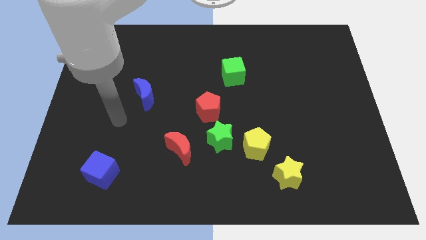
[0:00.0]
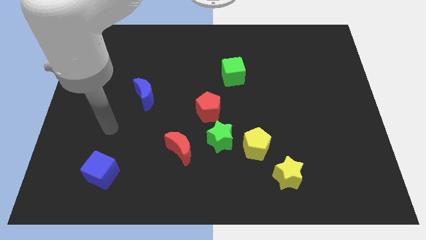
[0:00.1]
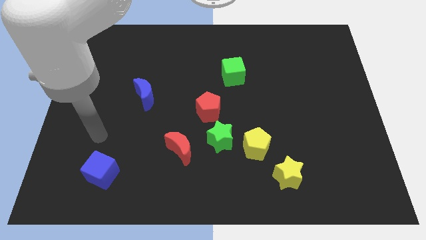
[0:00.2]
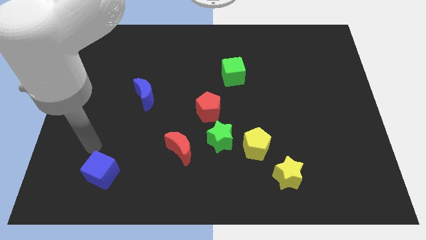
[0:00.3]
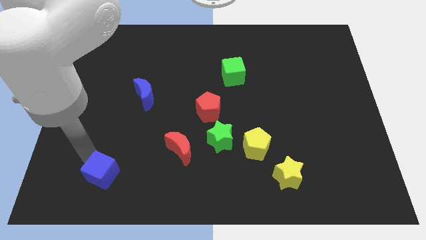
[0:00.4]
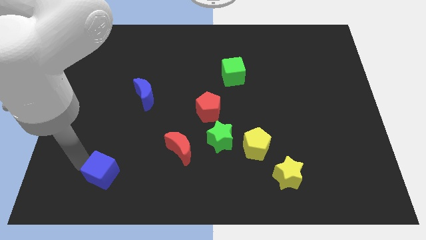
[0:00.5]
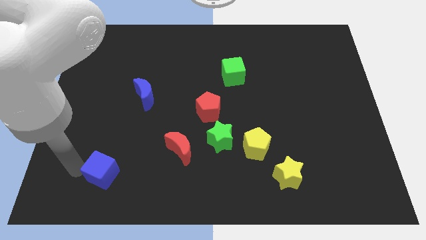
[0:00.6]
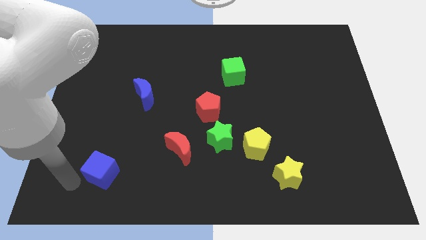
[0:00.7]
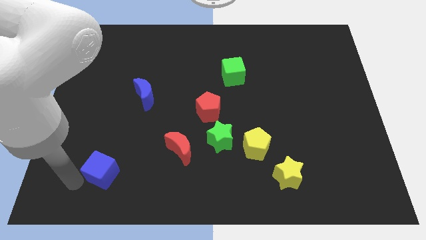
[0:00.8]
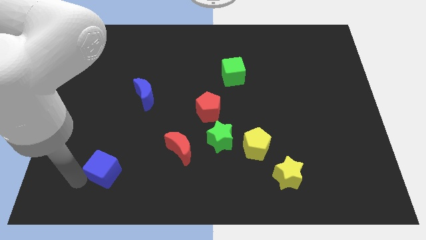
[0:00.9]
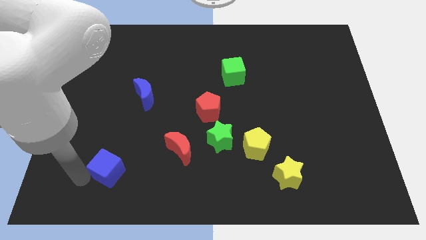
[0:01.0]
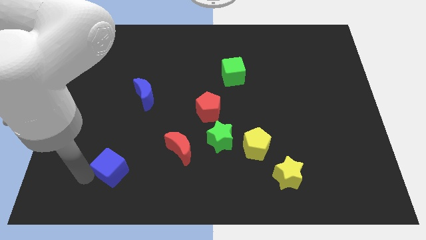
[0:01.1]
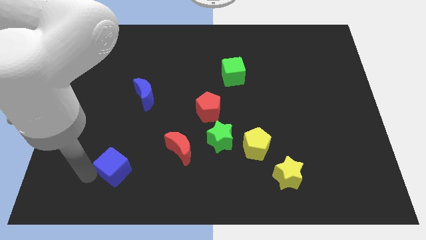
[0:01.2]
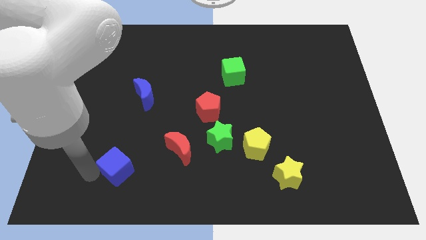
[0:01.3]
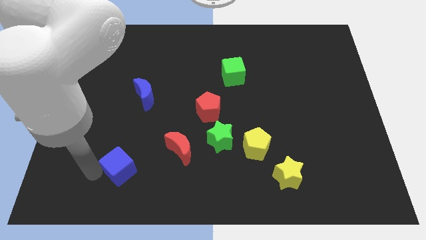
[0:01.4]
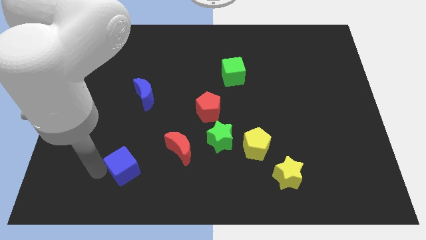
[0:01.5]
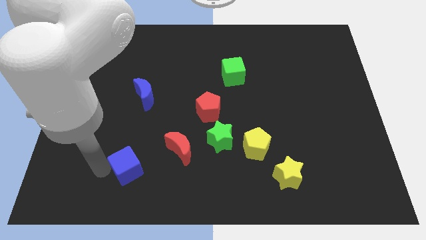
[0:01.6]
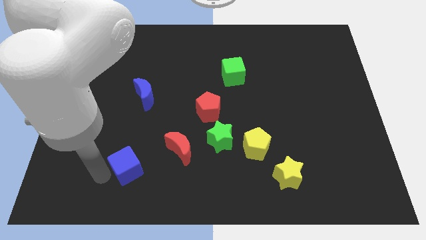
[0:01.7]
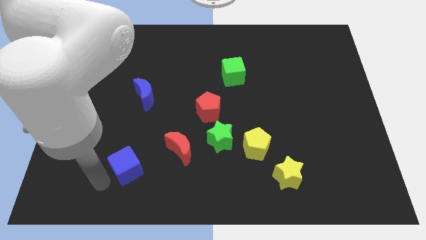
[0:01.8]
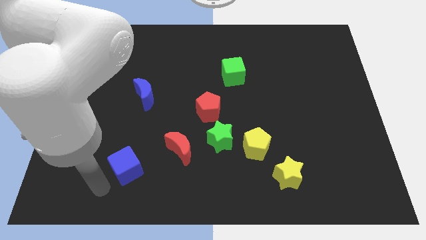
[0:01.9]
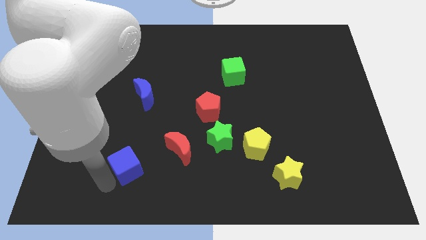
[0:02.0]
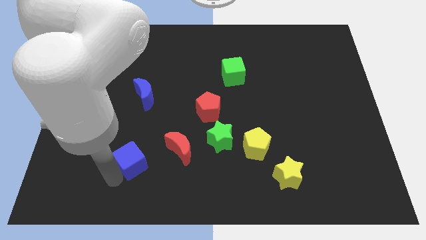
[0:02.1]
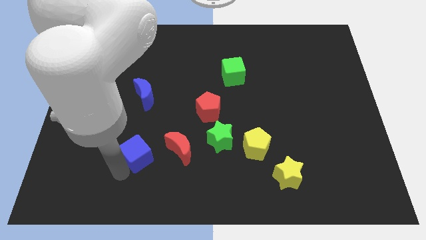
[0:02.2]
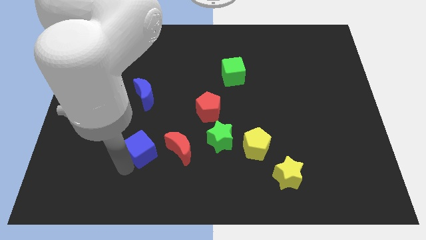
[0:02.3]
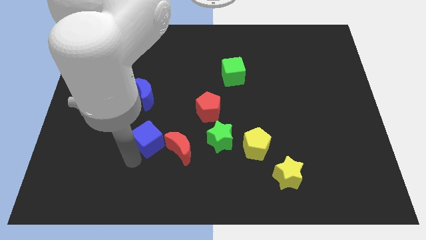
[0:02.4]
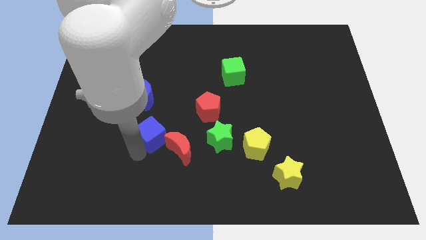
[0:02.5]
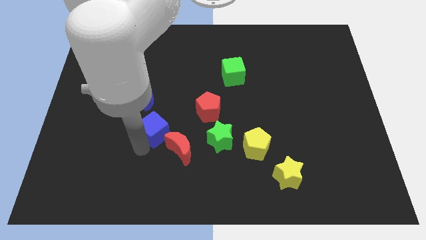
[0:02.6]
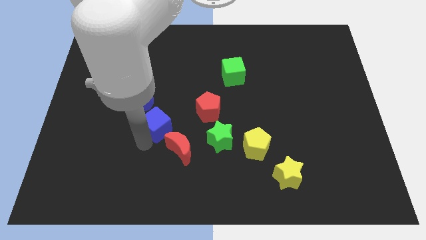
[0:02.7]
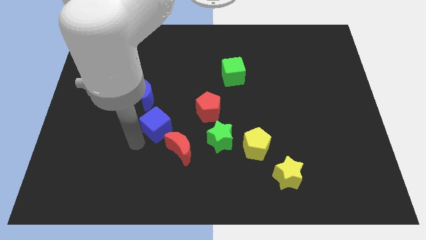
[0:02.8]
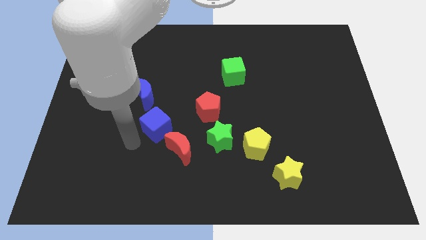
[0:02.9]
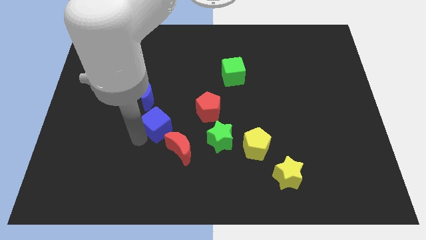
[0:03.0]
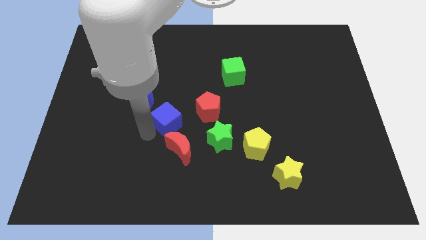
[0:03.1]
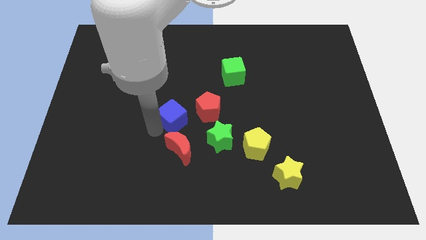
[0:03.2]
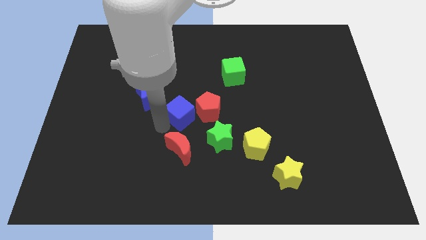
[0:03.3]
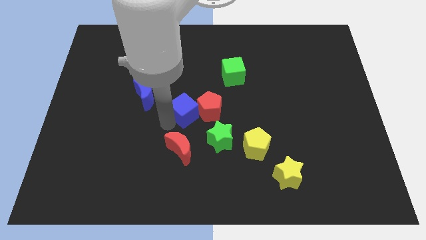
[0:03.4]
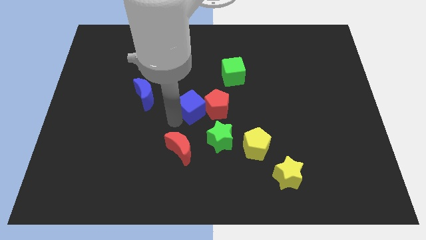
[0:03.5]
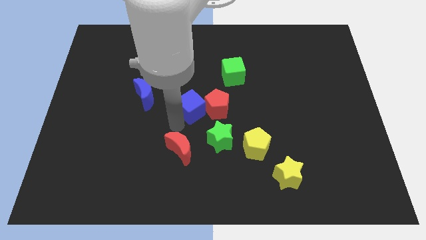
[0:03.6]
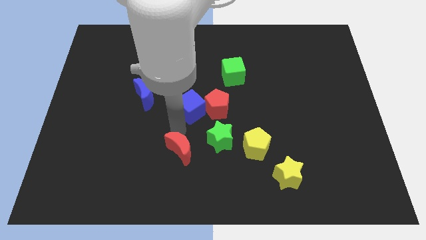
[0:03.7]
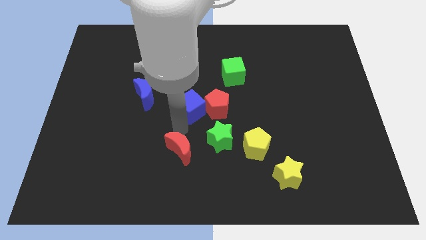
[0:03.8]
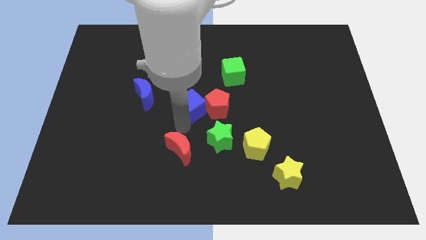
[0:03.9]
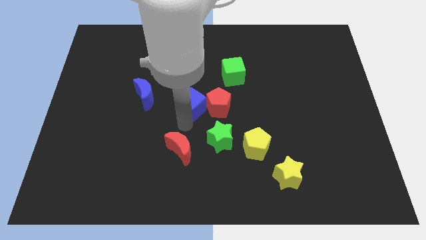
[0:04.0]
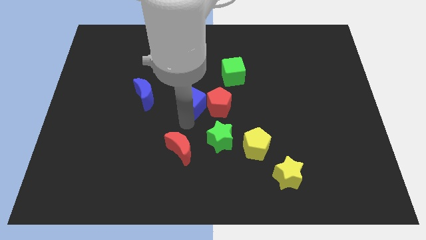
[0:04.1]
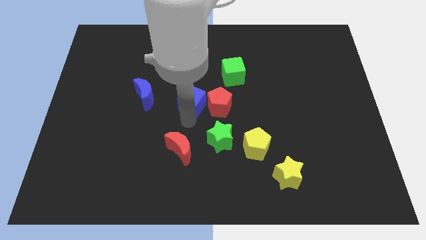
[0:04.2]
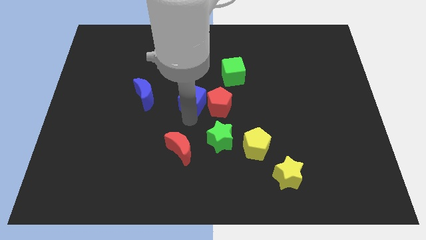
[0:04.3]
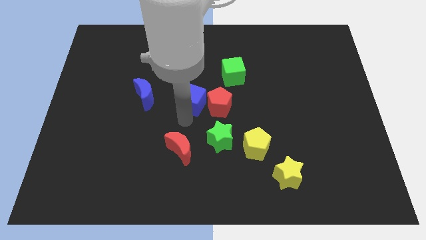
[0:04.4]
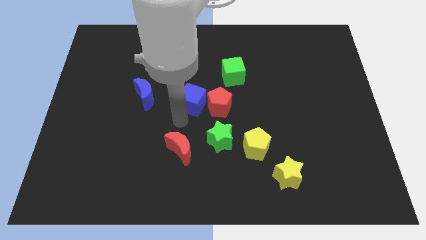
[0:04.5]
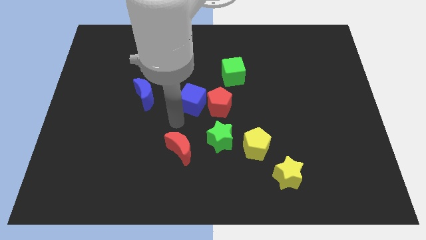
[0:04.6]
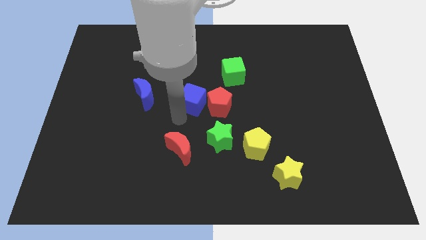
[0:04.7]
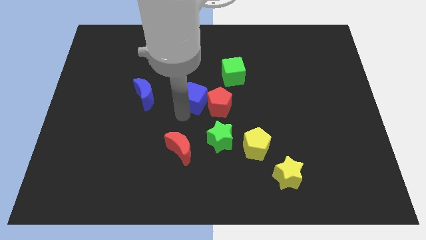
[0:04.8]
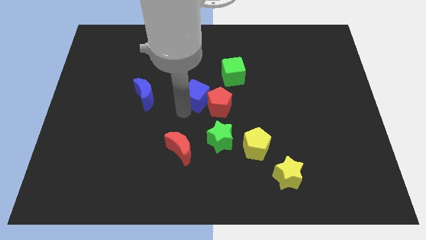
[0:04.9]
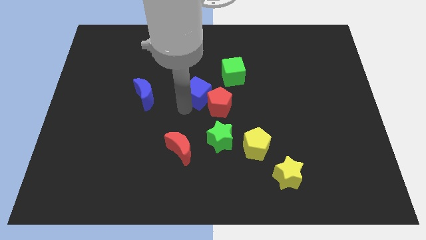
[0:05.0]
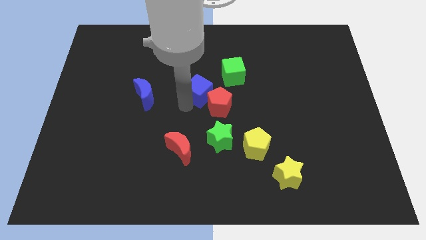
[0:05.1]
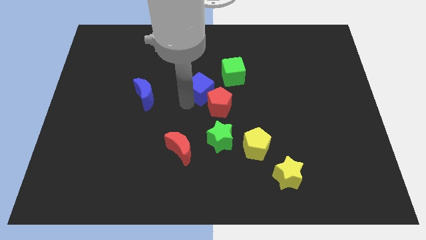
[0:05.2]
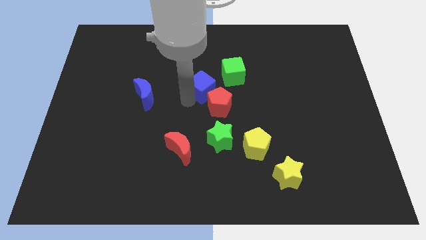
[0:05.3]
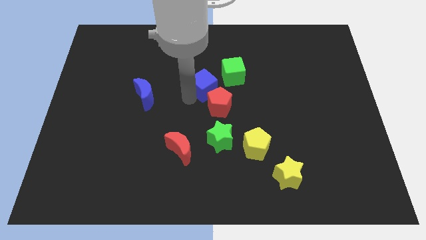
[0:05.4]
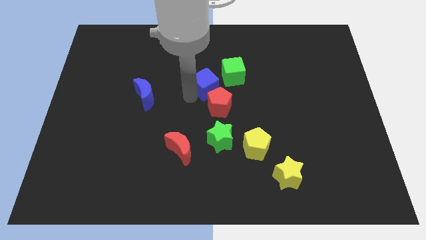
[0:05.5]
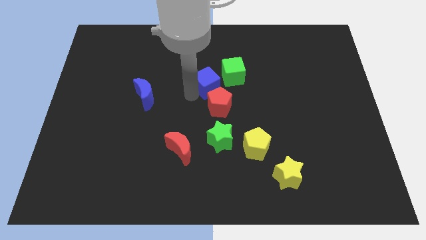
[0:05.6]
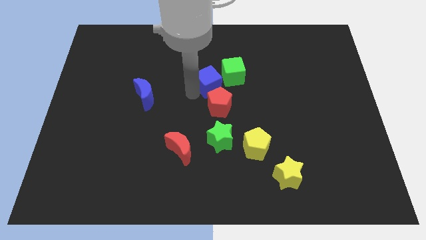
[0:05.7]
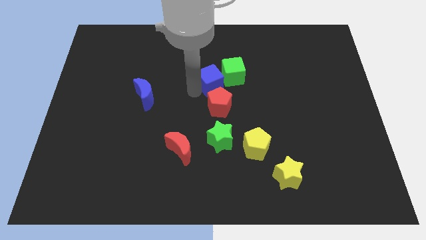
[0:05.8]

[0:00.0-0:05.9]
put the blue cube towards the green cube

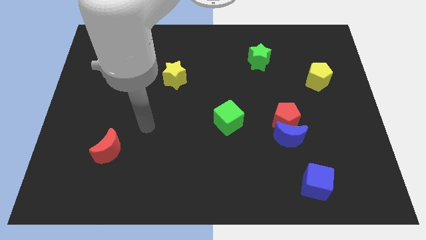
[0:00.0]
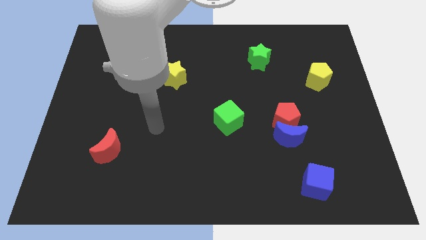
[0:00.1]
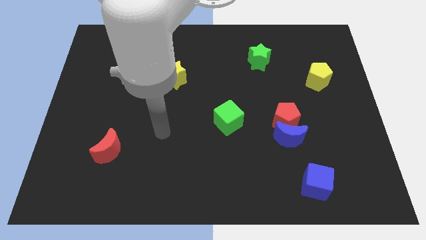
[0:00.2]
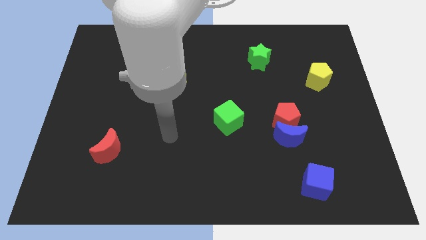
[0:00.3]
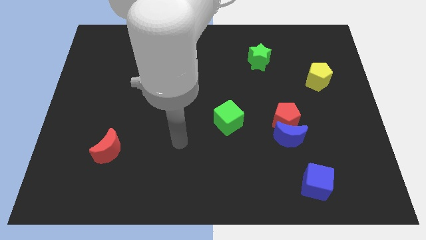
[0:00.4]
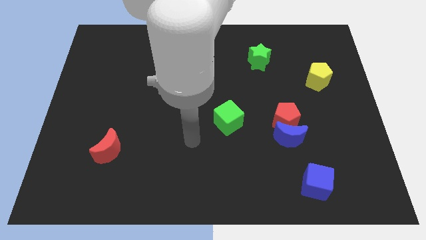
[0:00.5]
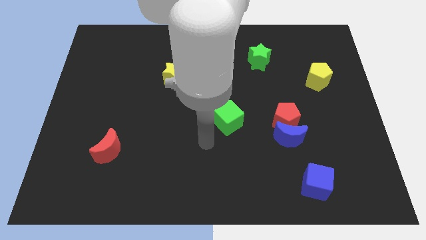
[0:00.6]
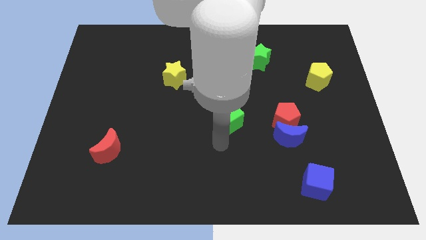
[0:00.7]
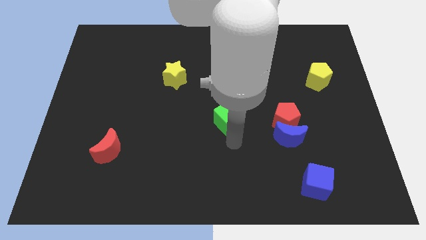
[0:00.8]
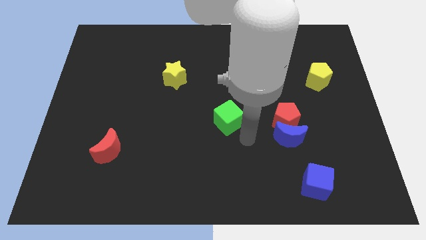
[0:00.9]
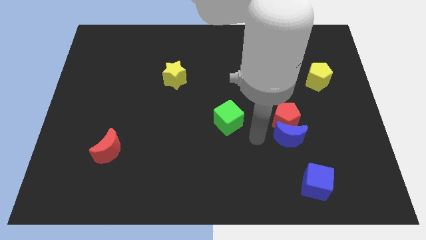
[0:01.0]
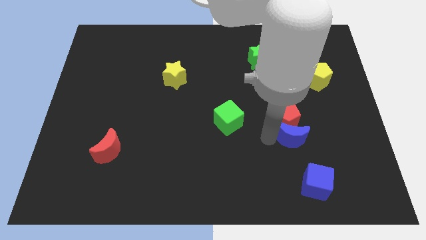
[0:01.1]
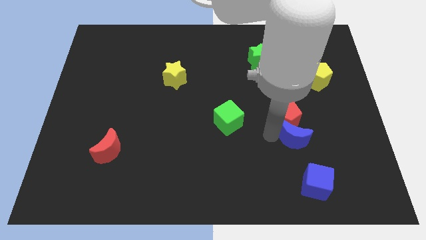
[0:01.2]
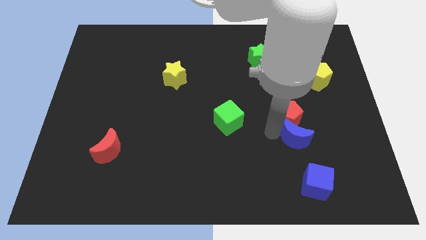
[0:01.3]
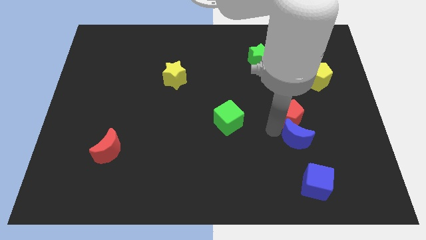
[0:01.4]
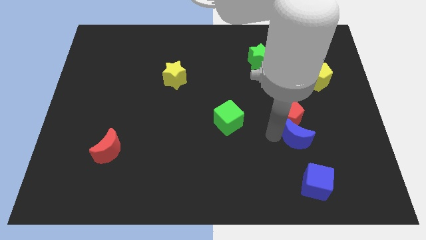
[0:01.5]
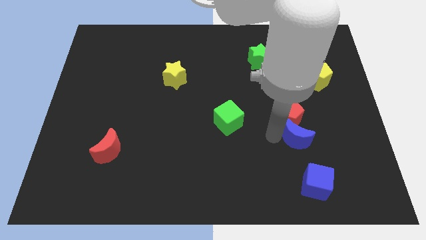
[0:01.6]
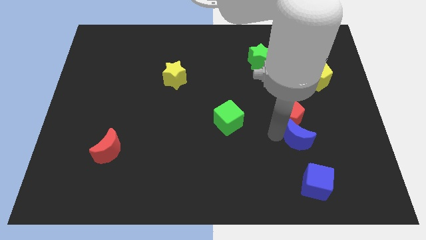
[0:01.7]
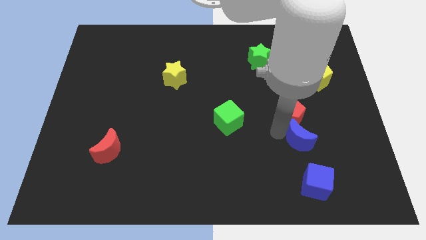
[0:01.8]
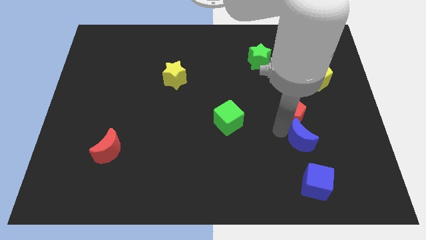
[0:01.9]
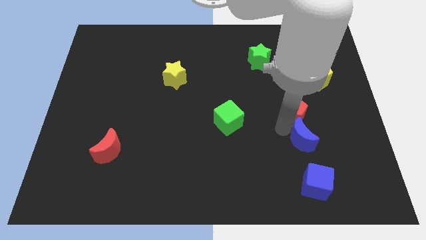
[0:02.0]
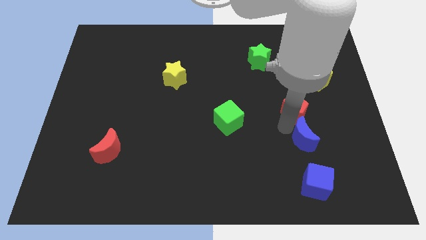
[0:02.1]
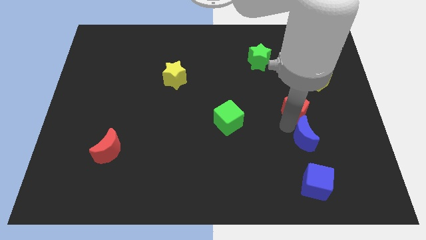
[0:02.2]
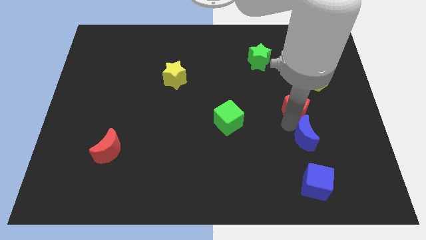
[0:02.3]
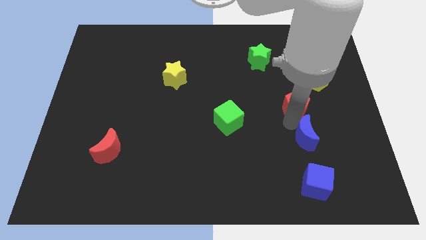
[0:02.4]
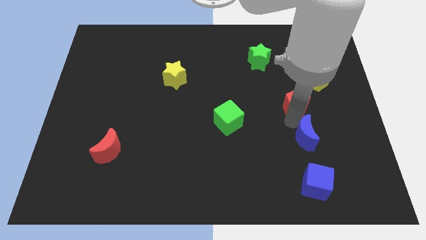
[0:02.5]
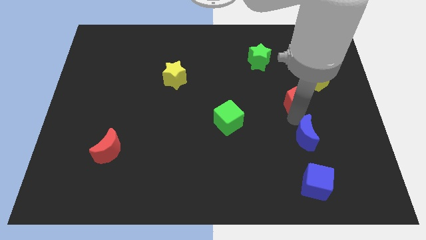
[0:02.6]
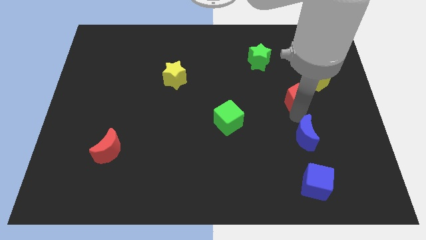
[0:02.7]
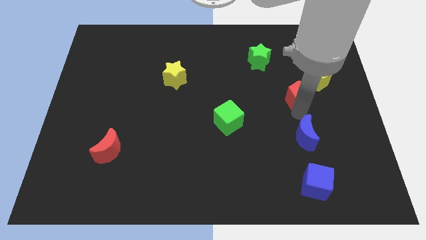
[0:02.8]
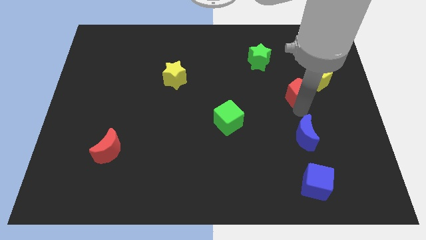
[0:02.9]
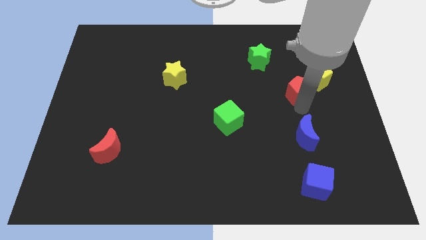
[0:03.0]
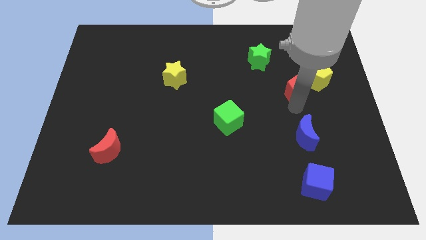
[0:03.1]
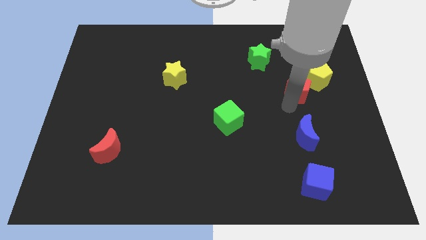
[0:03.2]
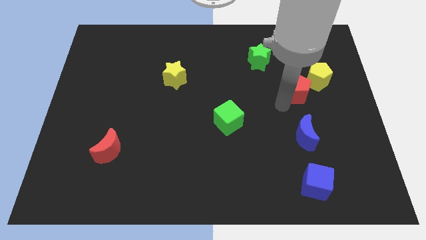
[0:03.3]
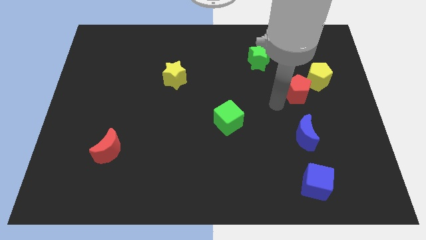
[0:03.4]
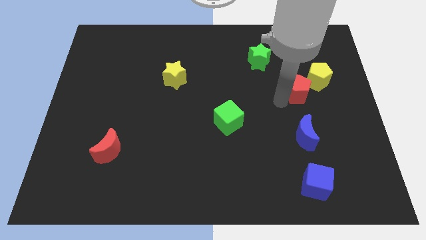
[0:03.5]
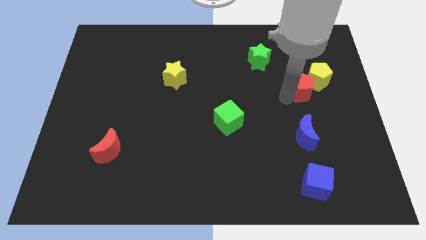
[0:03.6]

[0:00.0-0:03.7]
move the red pentagon close to the yellow pentagon
